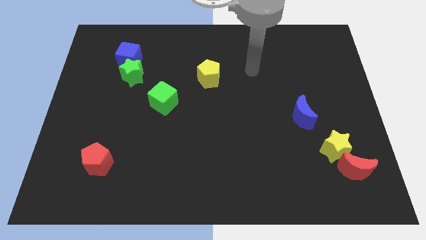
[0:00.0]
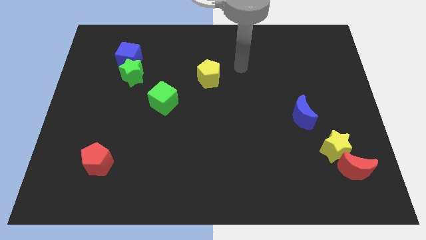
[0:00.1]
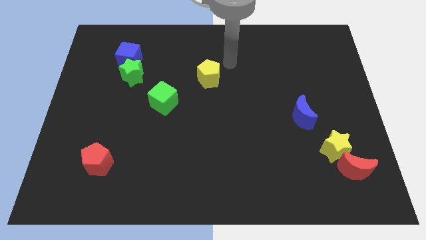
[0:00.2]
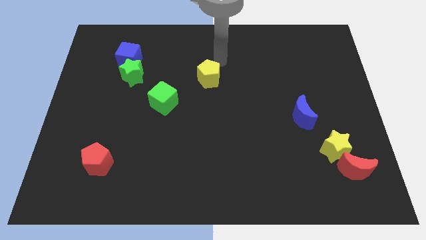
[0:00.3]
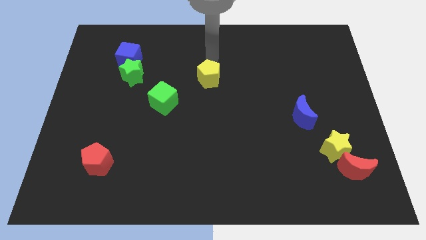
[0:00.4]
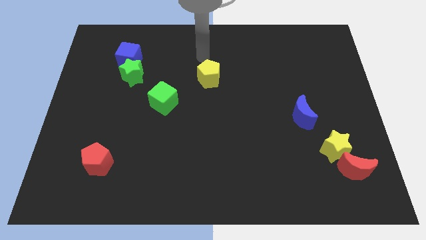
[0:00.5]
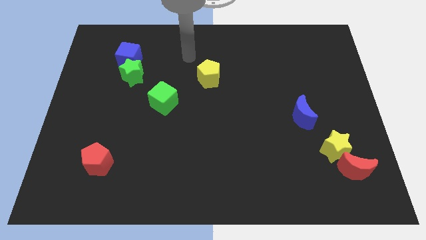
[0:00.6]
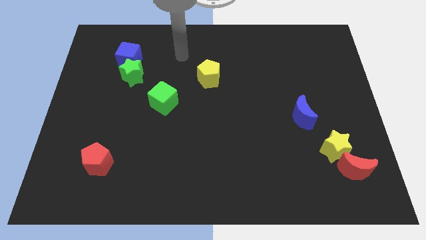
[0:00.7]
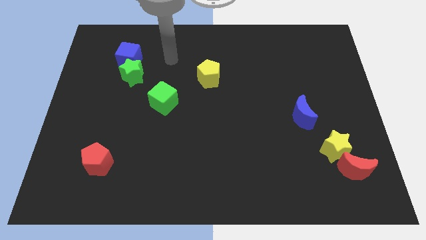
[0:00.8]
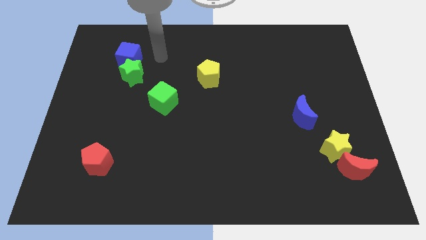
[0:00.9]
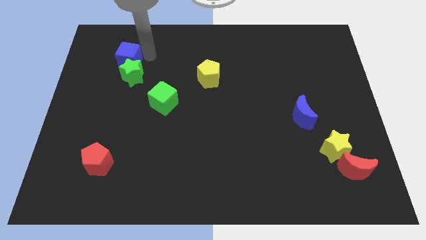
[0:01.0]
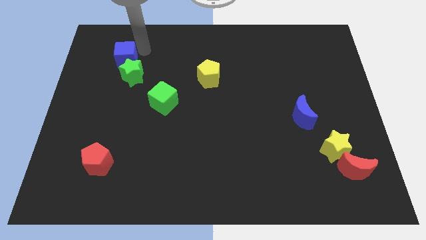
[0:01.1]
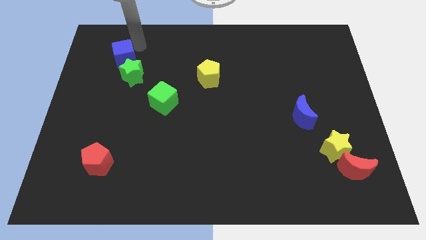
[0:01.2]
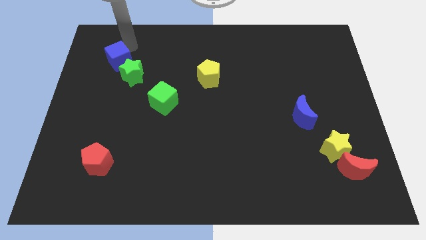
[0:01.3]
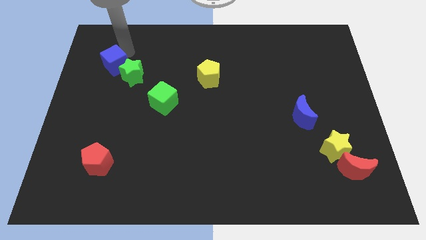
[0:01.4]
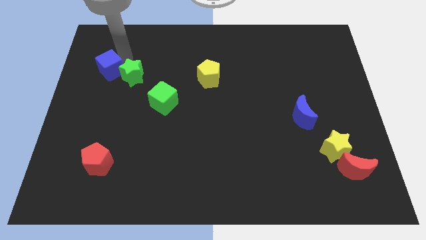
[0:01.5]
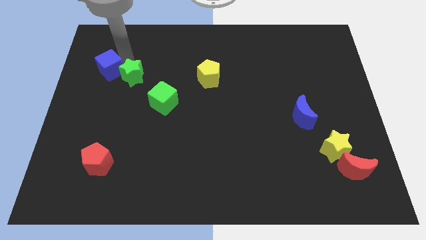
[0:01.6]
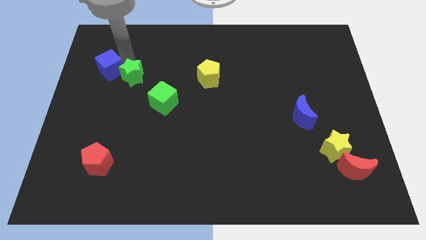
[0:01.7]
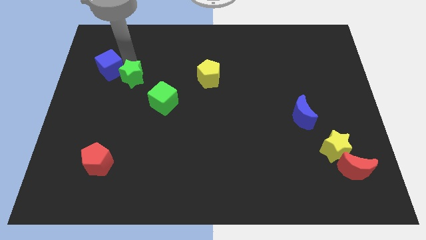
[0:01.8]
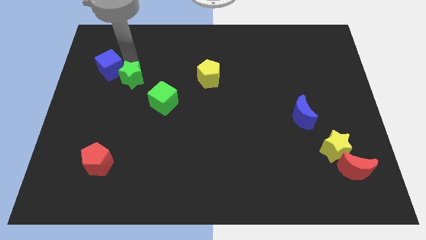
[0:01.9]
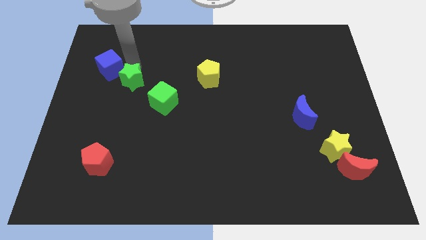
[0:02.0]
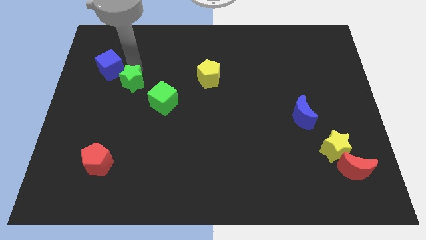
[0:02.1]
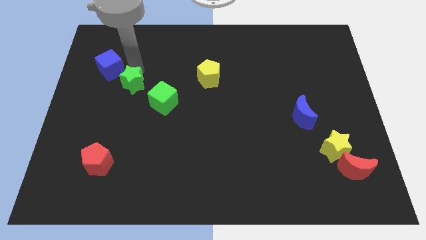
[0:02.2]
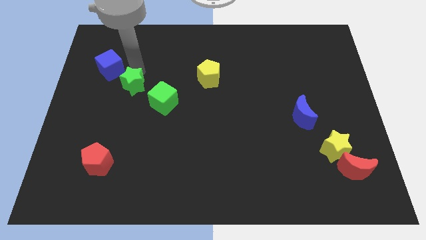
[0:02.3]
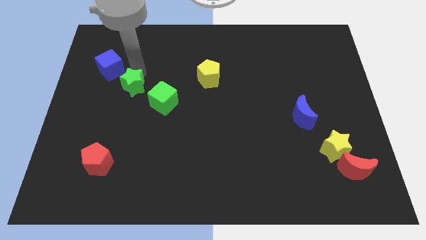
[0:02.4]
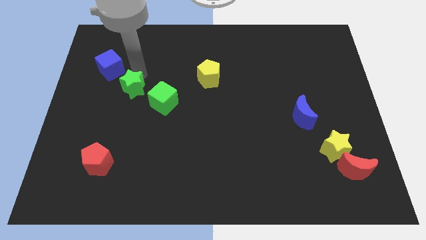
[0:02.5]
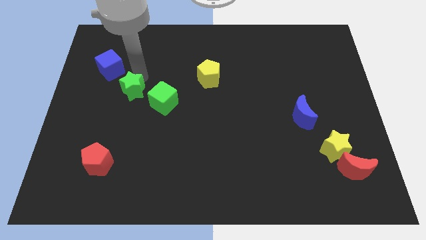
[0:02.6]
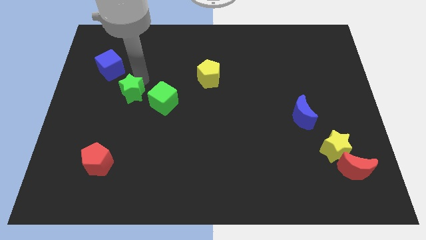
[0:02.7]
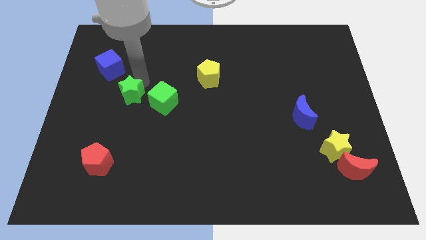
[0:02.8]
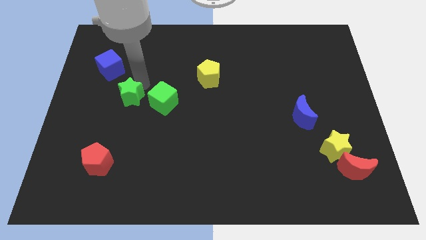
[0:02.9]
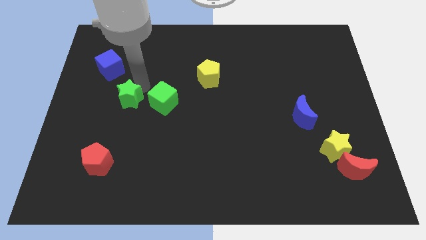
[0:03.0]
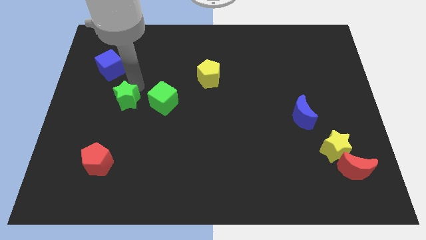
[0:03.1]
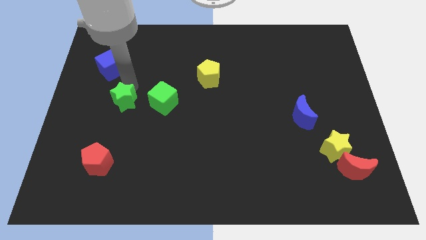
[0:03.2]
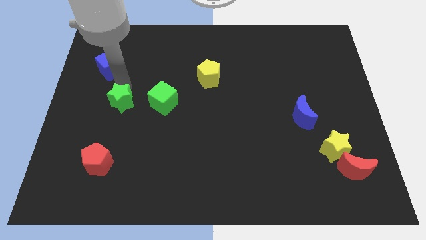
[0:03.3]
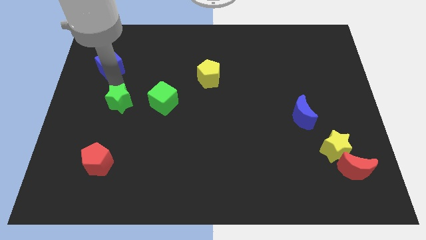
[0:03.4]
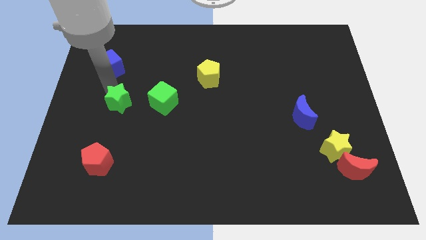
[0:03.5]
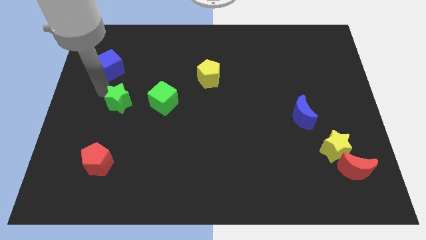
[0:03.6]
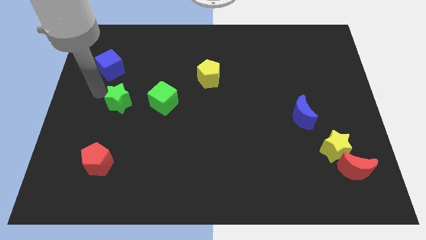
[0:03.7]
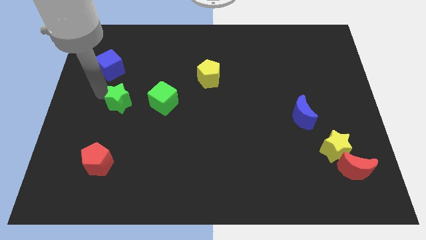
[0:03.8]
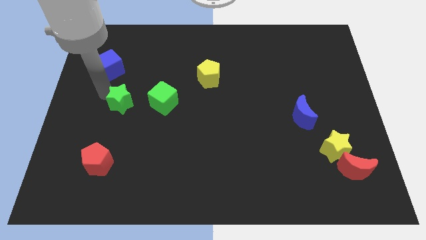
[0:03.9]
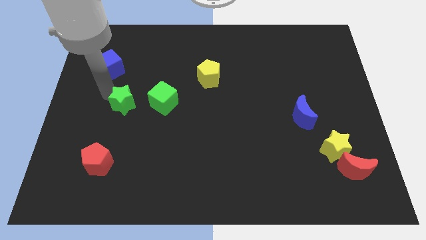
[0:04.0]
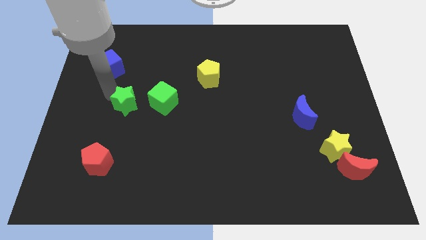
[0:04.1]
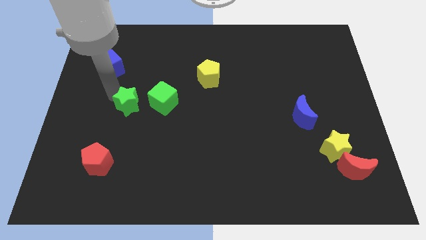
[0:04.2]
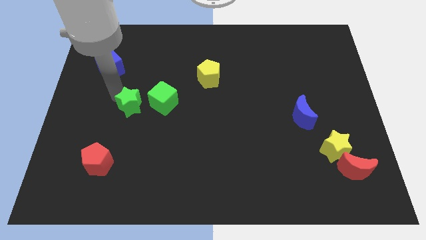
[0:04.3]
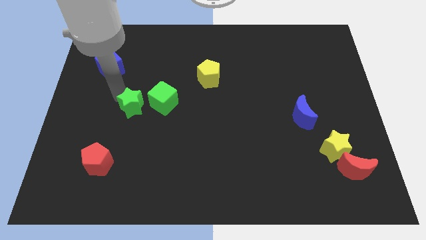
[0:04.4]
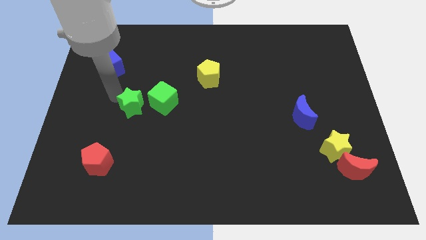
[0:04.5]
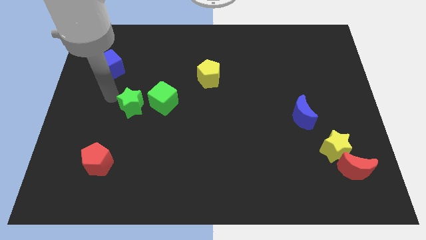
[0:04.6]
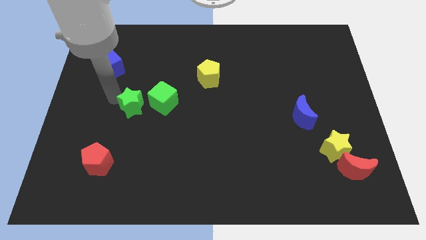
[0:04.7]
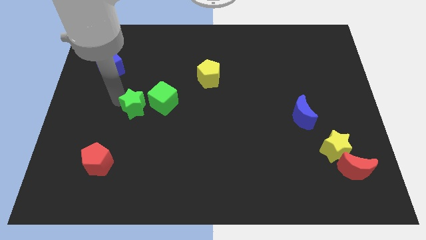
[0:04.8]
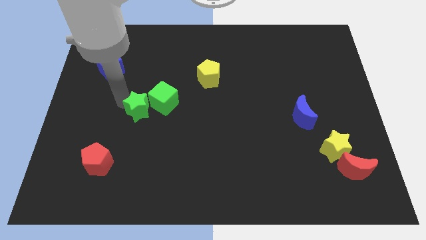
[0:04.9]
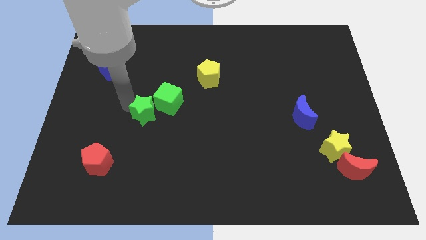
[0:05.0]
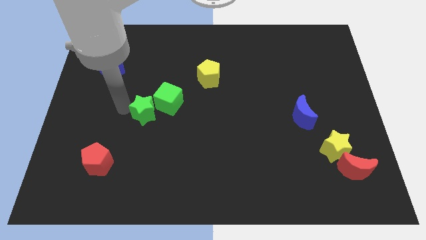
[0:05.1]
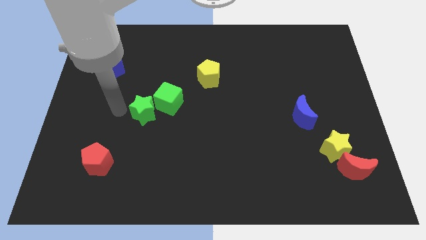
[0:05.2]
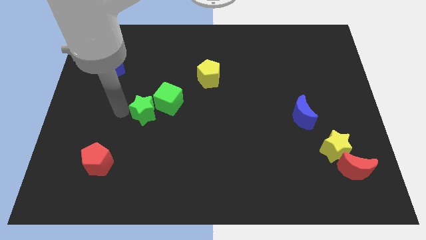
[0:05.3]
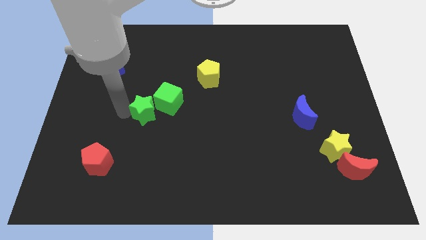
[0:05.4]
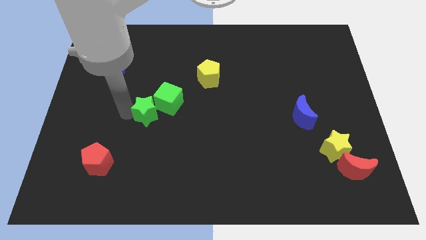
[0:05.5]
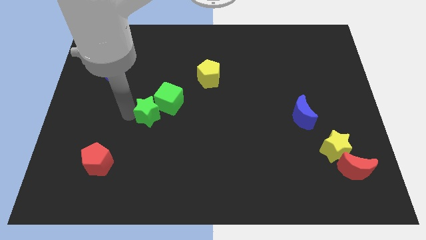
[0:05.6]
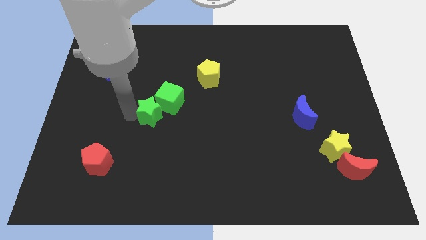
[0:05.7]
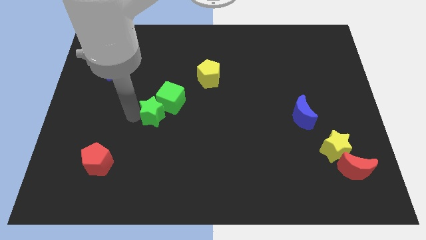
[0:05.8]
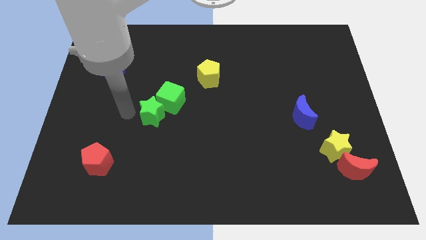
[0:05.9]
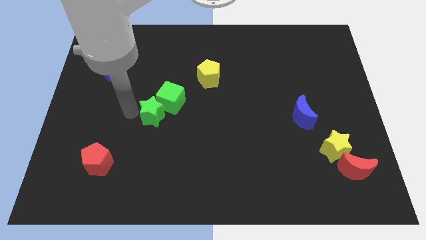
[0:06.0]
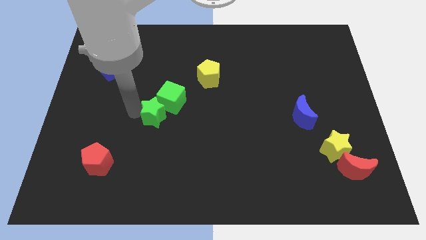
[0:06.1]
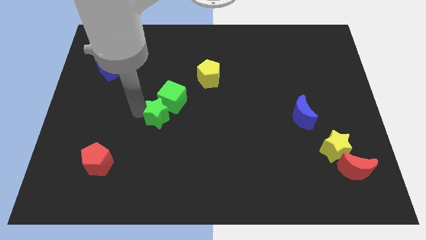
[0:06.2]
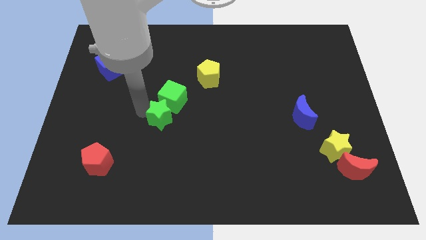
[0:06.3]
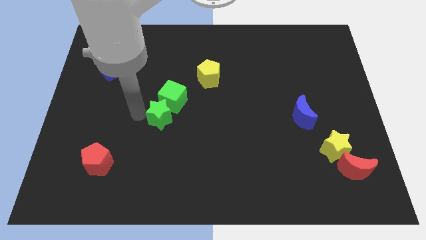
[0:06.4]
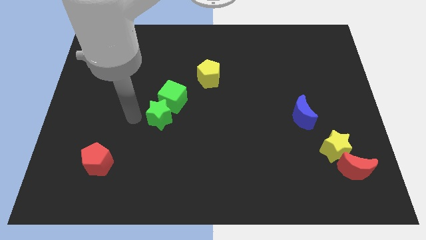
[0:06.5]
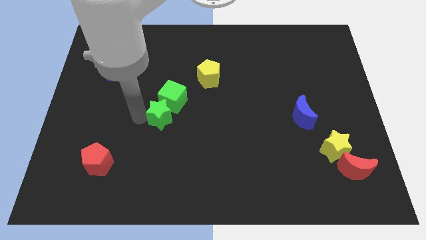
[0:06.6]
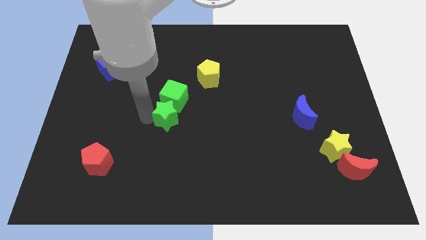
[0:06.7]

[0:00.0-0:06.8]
put the green star to the bottom right side of the green cube

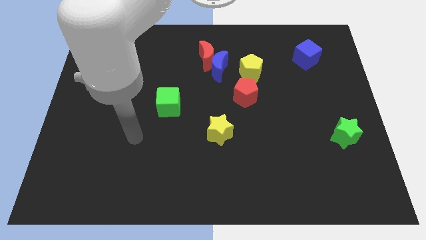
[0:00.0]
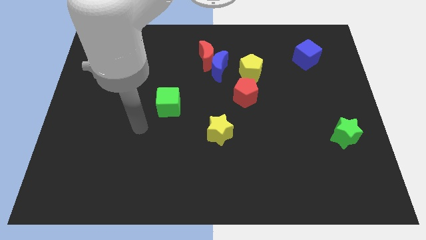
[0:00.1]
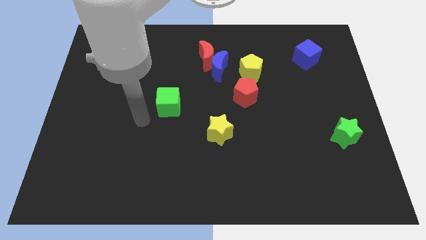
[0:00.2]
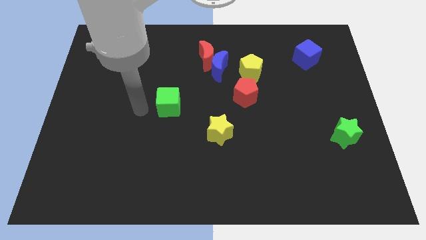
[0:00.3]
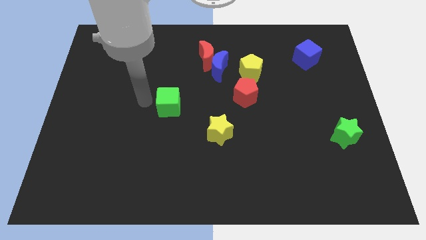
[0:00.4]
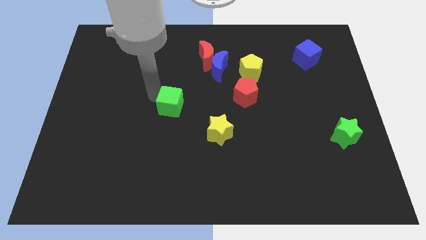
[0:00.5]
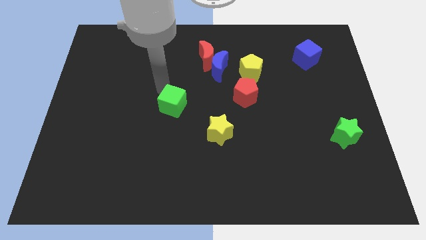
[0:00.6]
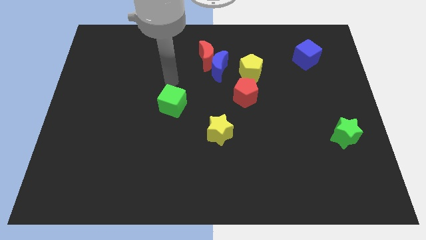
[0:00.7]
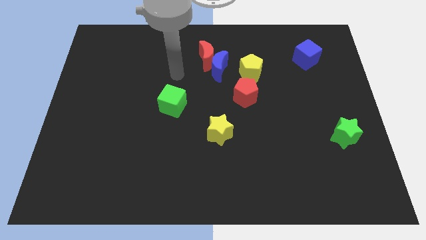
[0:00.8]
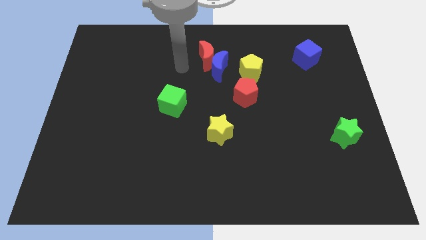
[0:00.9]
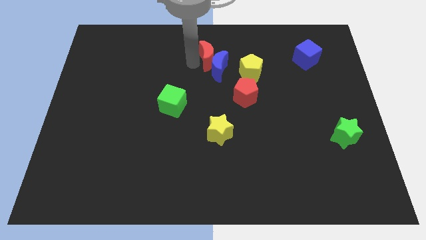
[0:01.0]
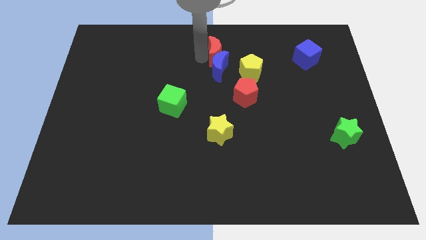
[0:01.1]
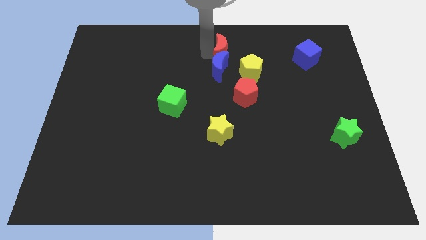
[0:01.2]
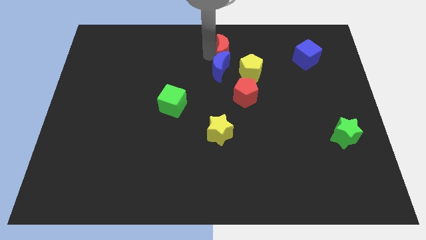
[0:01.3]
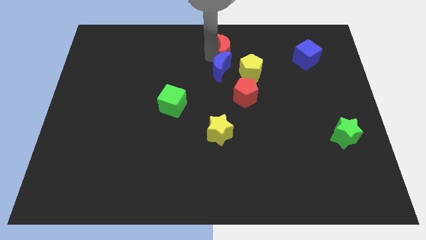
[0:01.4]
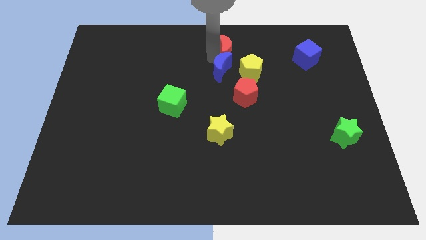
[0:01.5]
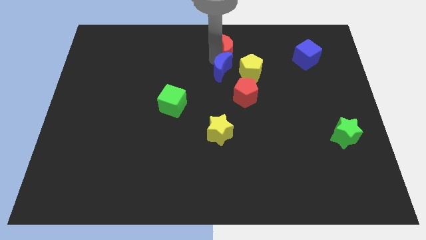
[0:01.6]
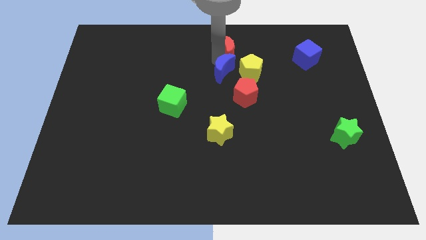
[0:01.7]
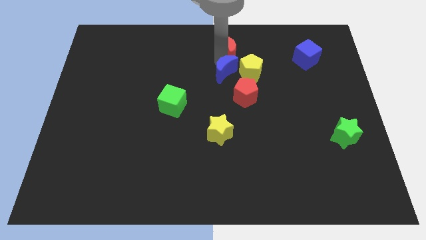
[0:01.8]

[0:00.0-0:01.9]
slide the blue moon diagonally down and to the left of the yellow pentagon
